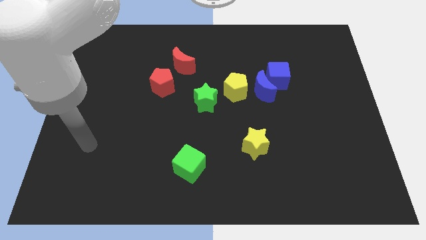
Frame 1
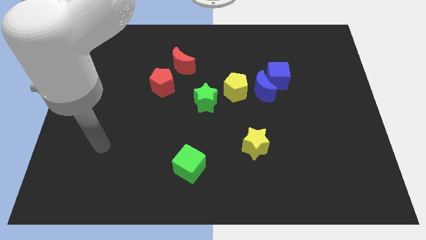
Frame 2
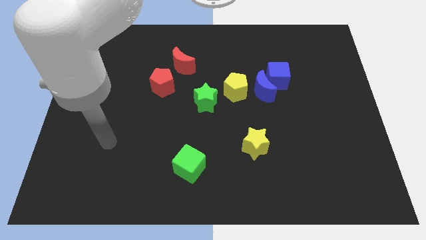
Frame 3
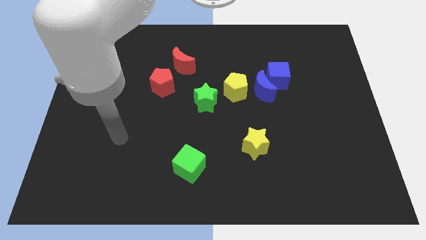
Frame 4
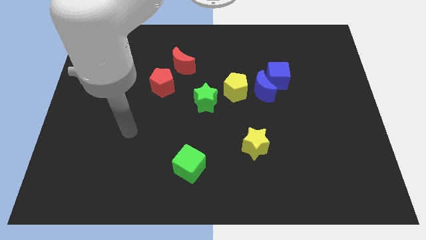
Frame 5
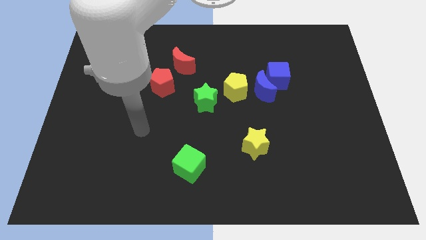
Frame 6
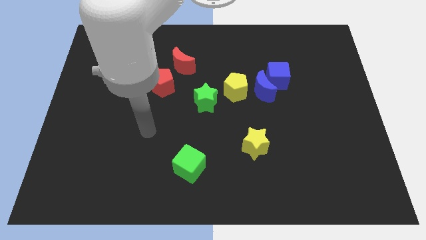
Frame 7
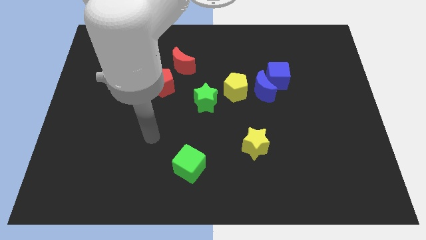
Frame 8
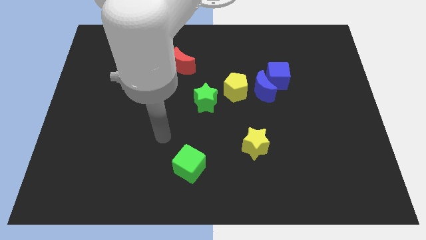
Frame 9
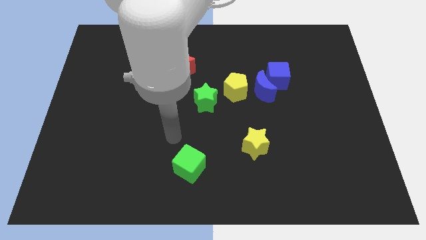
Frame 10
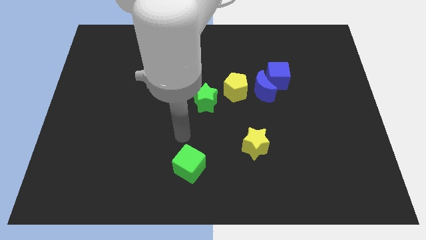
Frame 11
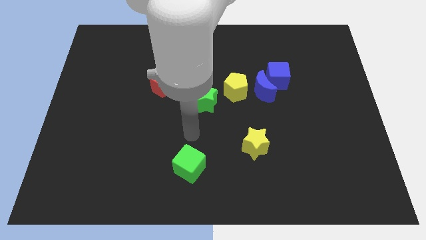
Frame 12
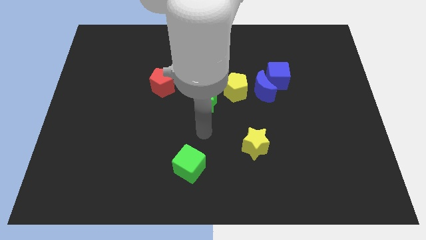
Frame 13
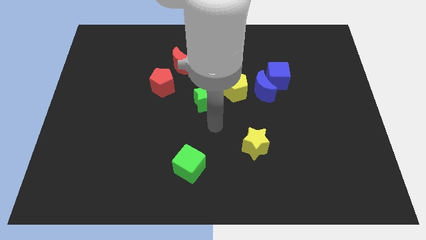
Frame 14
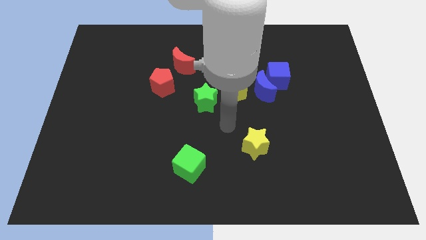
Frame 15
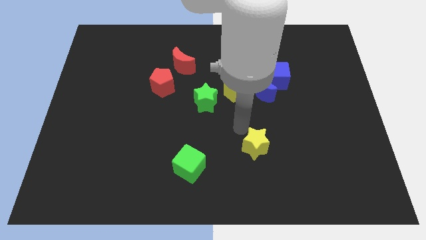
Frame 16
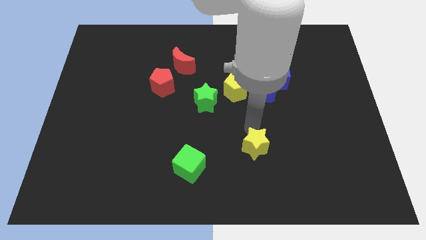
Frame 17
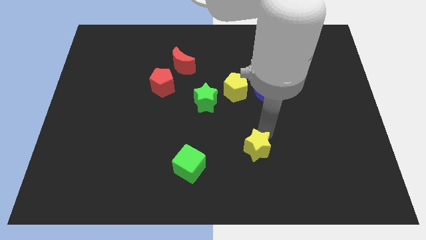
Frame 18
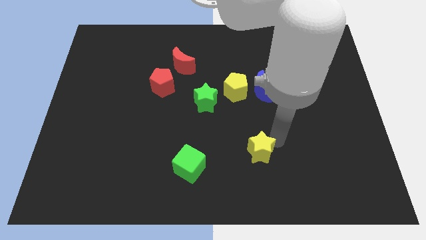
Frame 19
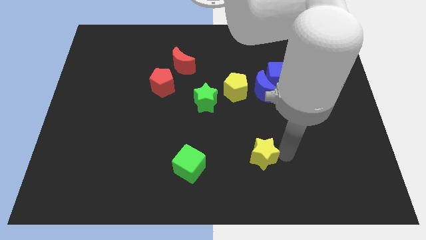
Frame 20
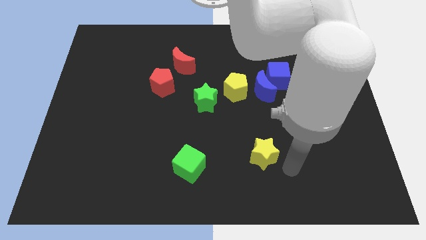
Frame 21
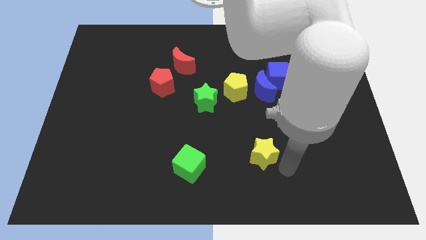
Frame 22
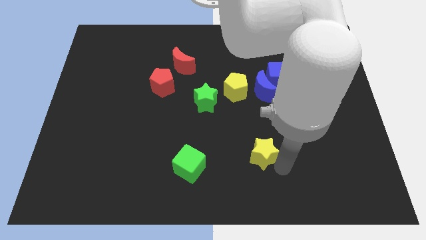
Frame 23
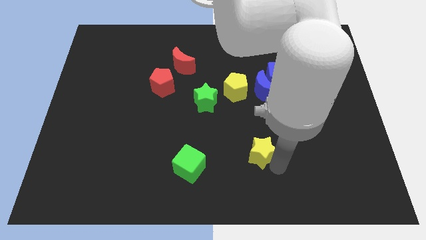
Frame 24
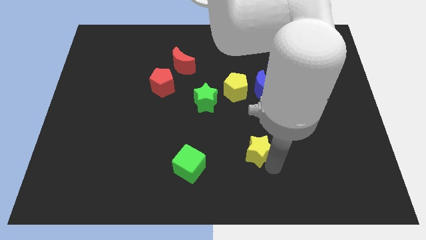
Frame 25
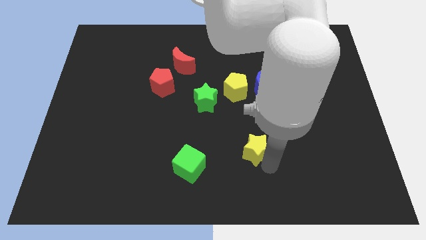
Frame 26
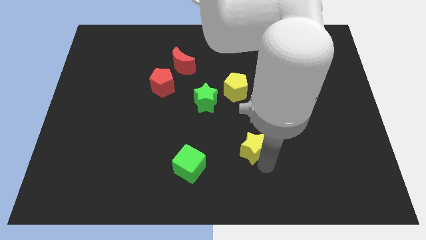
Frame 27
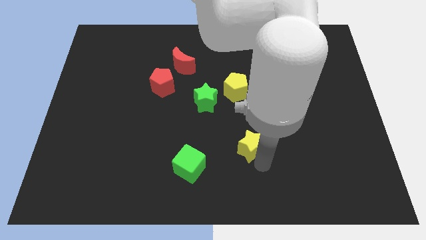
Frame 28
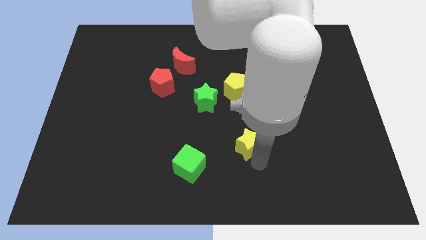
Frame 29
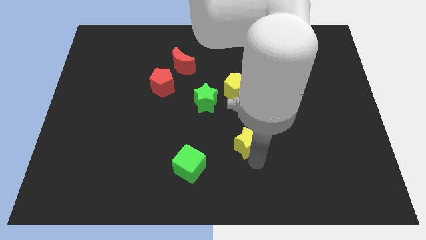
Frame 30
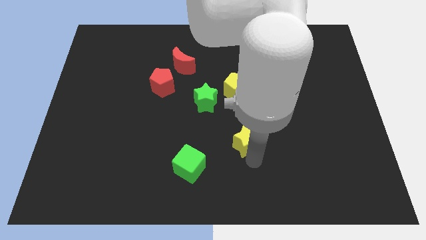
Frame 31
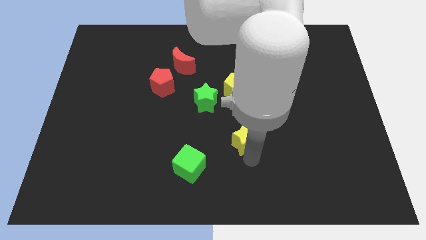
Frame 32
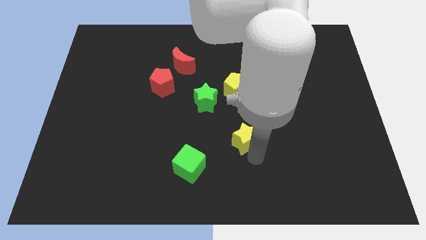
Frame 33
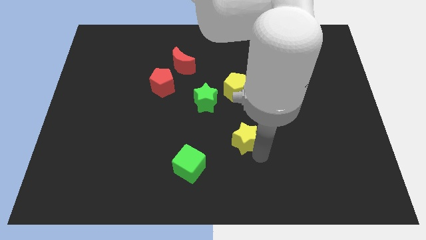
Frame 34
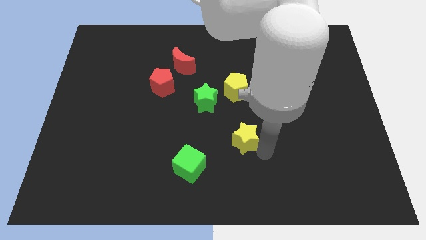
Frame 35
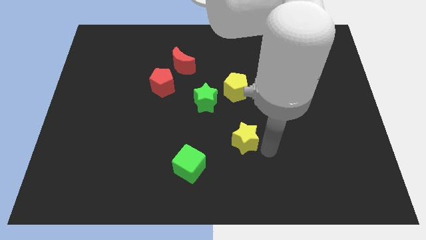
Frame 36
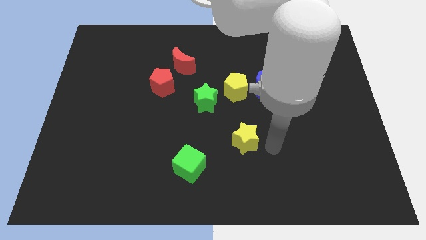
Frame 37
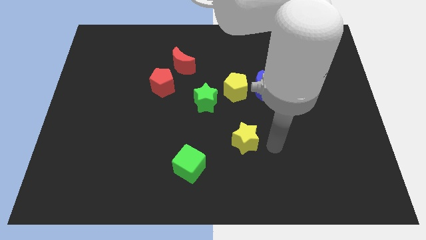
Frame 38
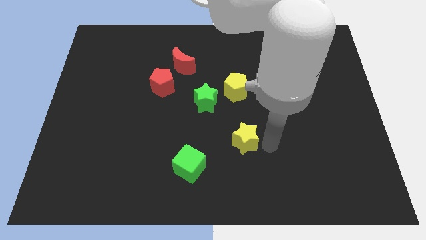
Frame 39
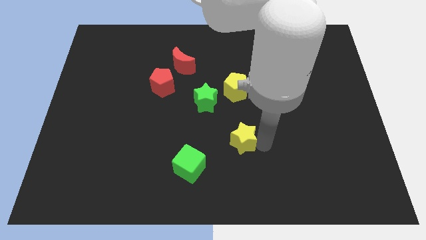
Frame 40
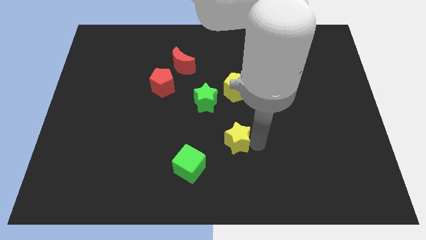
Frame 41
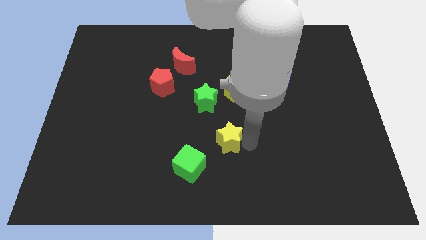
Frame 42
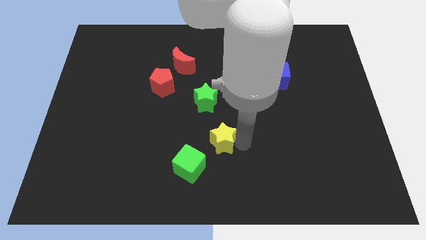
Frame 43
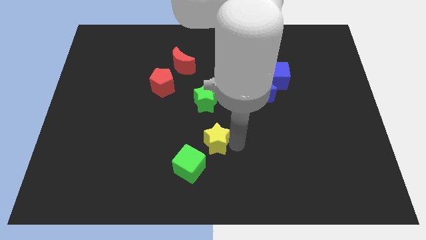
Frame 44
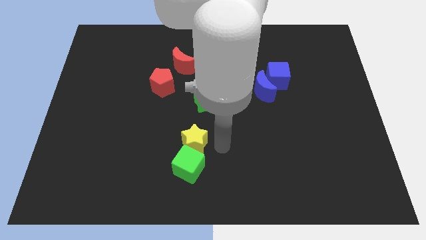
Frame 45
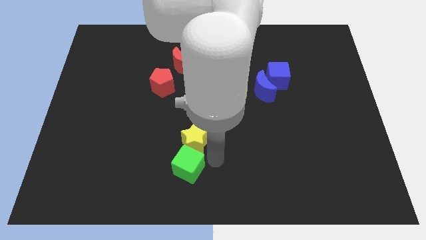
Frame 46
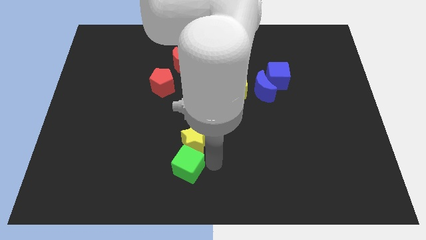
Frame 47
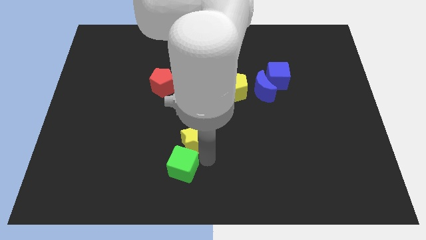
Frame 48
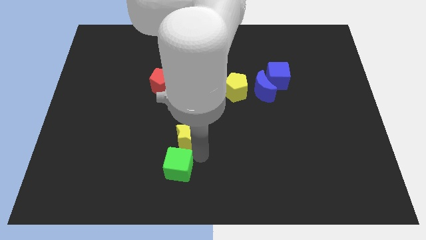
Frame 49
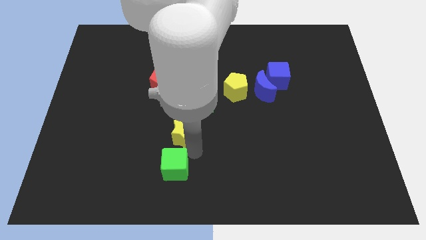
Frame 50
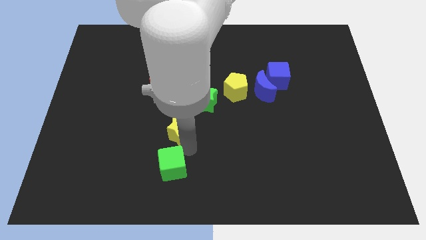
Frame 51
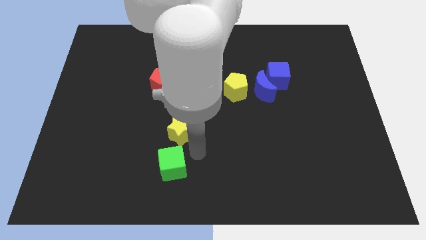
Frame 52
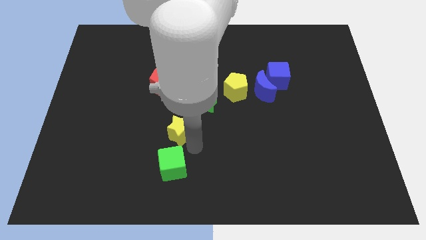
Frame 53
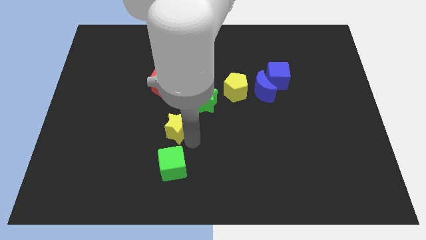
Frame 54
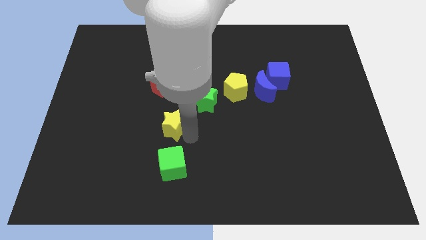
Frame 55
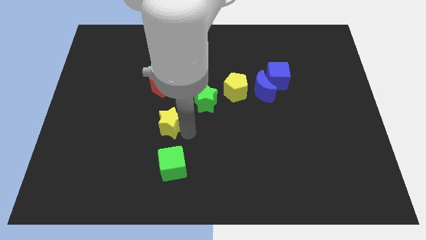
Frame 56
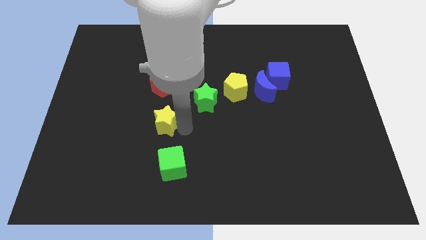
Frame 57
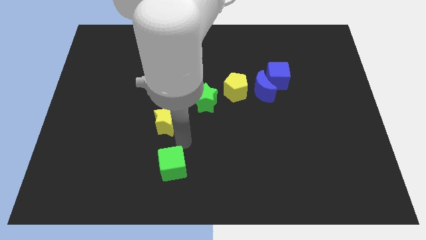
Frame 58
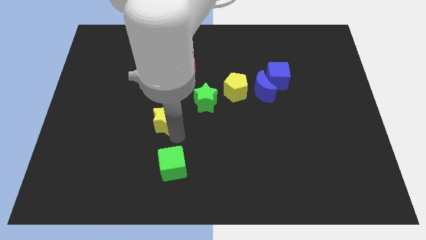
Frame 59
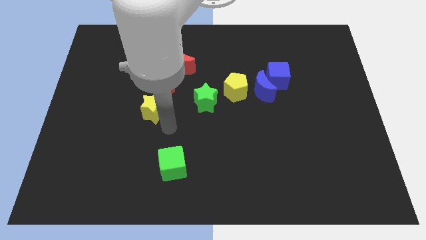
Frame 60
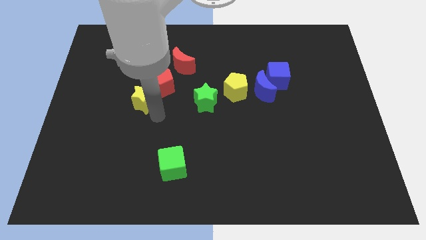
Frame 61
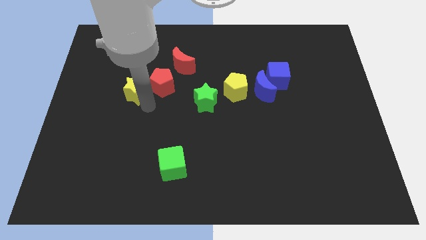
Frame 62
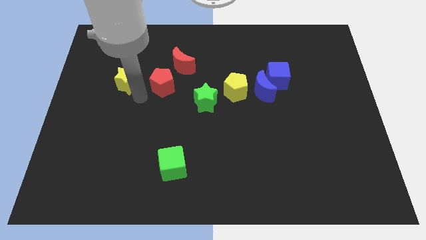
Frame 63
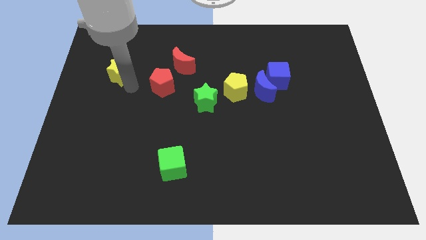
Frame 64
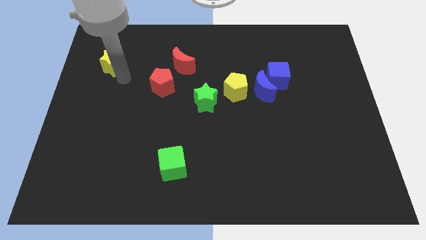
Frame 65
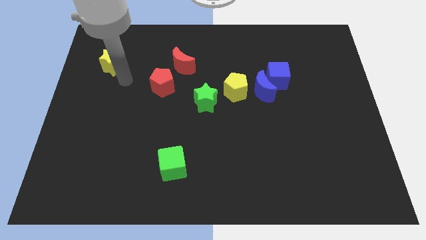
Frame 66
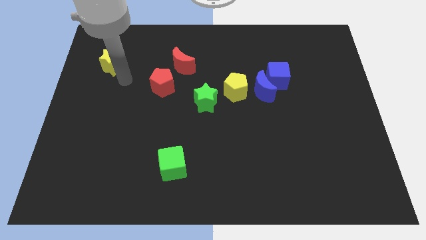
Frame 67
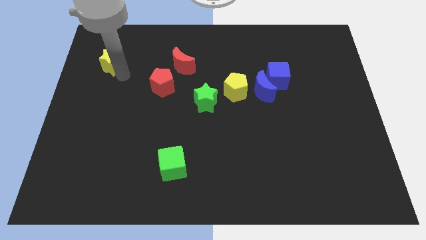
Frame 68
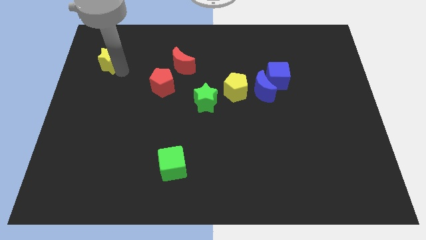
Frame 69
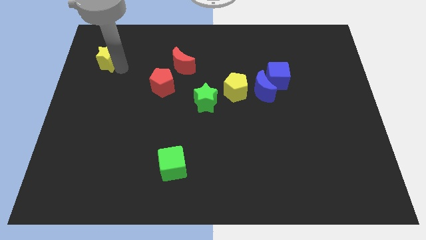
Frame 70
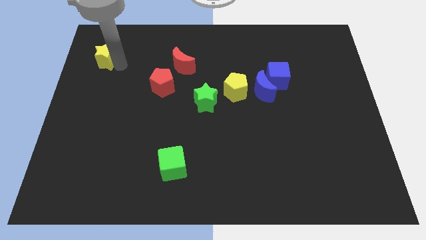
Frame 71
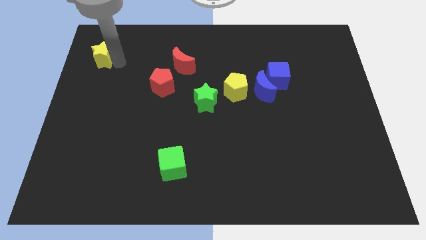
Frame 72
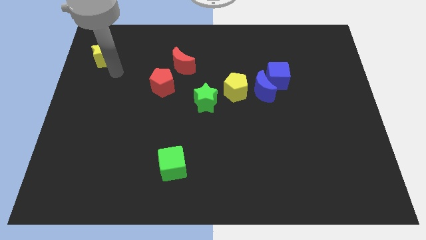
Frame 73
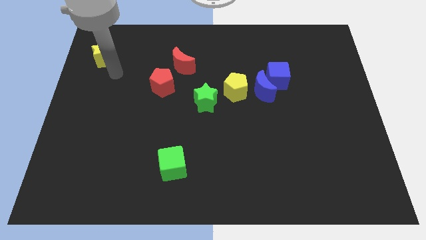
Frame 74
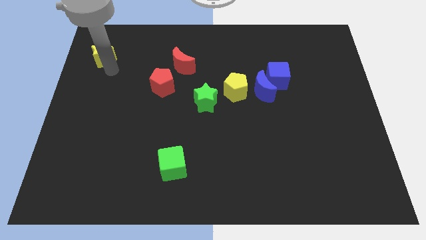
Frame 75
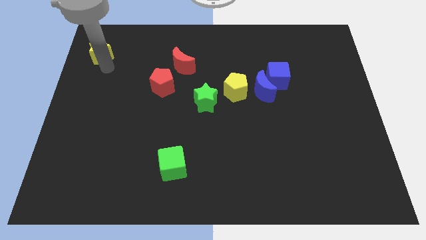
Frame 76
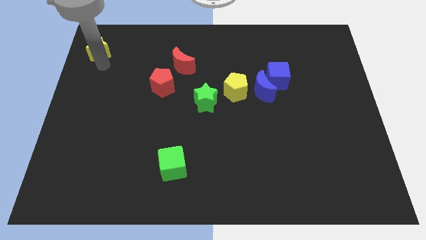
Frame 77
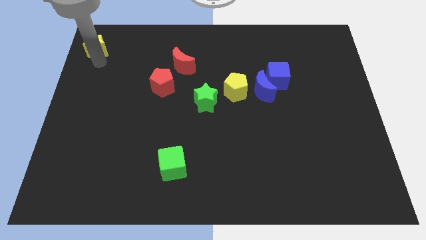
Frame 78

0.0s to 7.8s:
put the yellow star to the top left corner

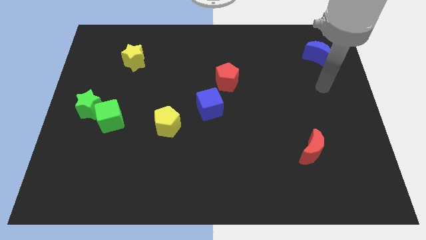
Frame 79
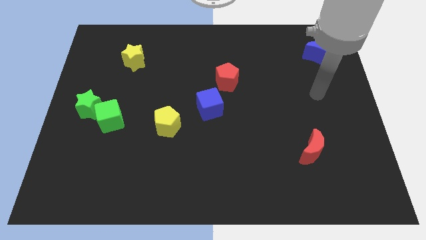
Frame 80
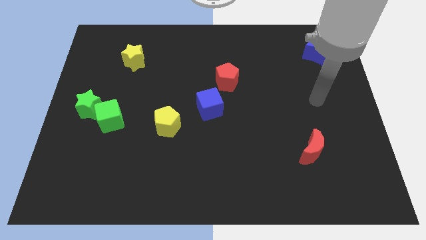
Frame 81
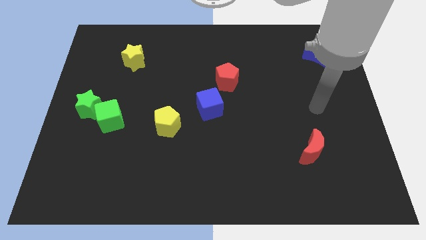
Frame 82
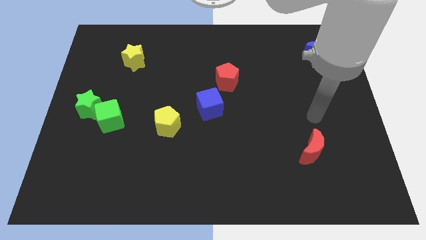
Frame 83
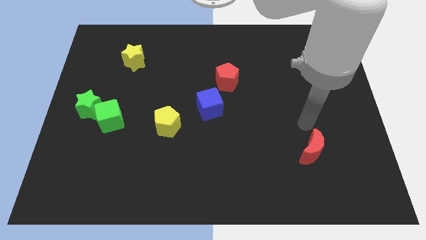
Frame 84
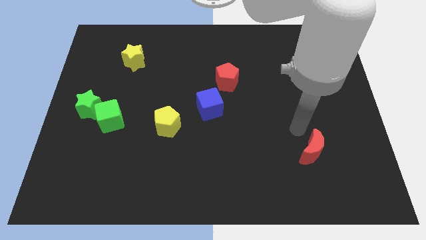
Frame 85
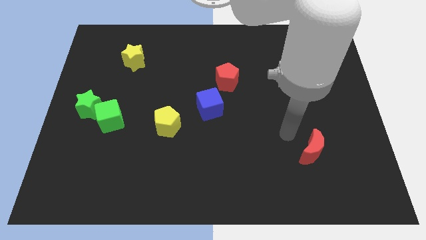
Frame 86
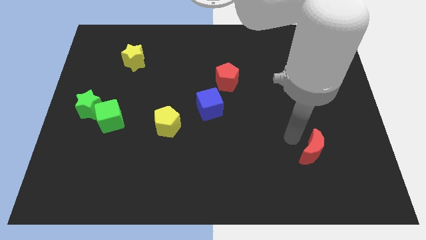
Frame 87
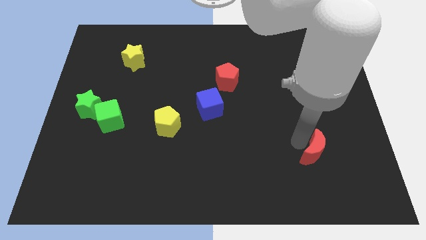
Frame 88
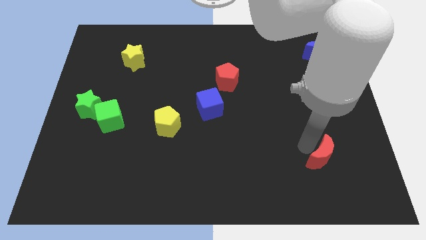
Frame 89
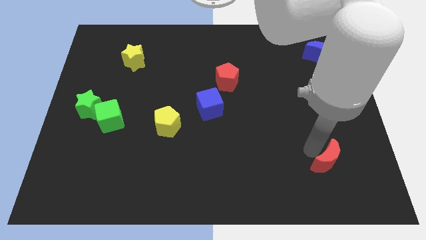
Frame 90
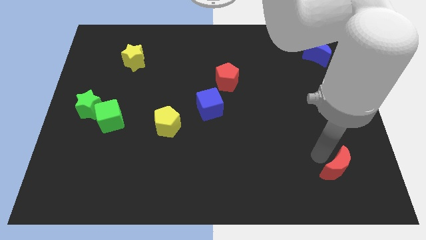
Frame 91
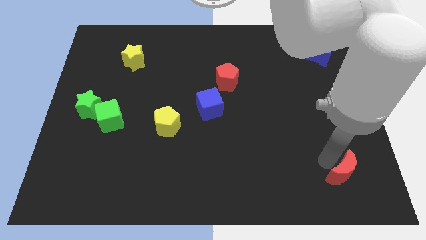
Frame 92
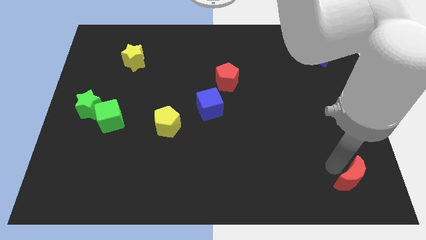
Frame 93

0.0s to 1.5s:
move the red moon to the bottom right corner
